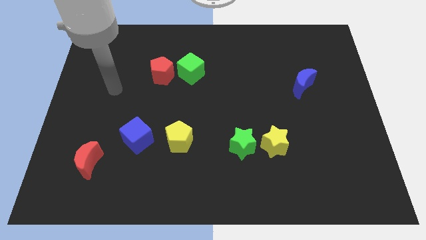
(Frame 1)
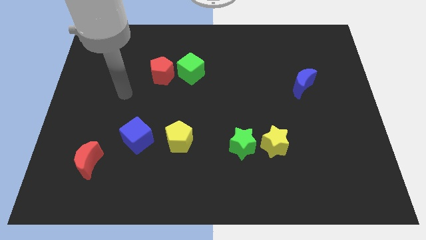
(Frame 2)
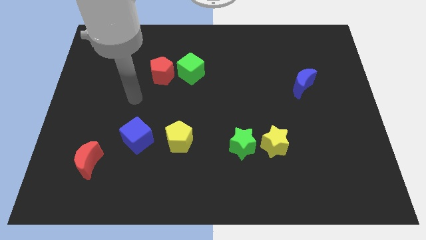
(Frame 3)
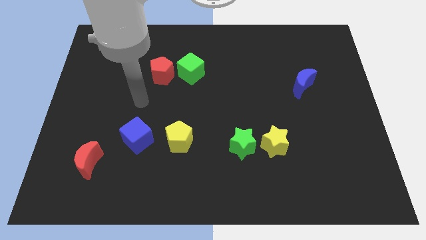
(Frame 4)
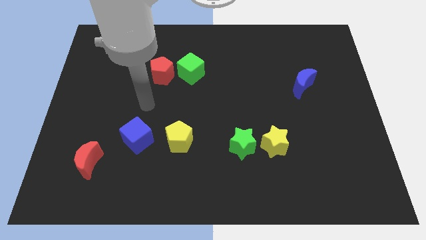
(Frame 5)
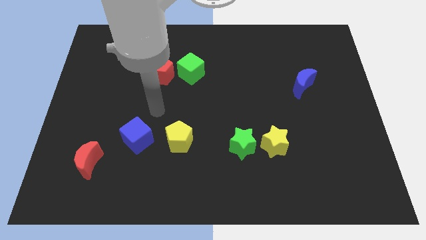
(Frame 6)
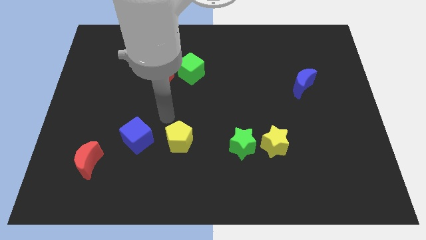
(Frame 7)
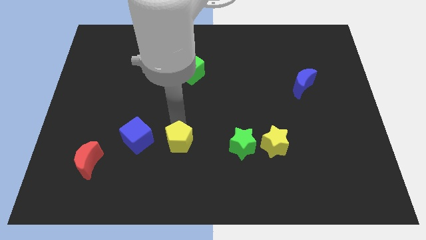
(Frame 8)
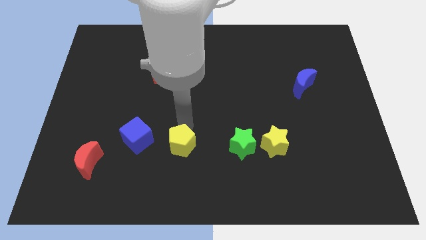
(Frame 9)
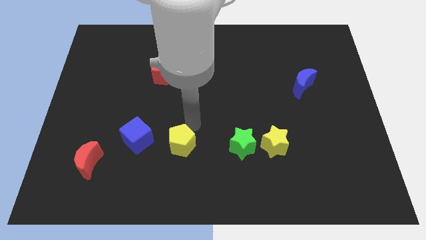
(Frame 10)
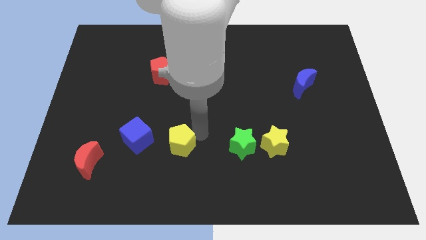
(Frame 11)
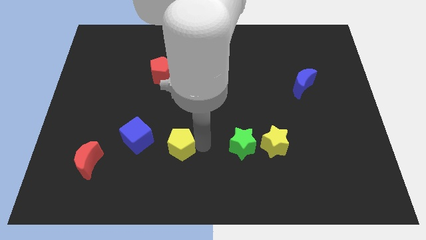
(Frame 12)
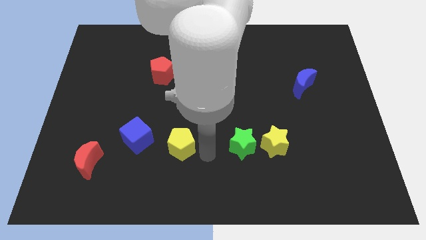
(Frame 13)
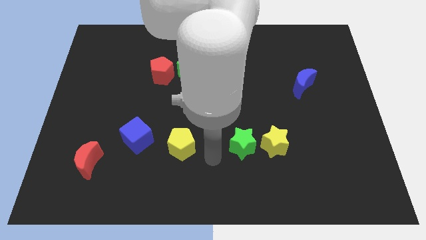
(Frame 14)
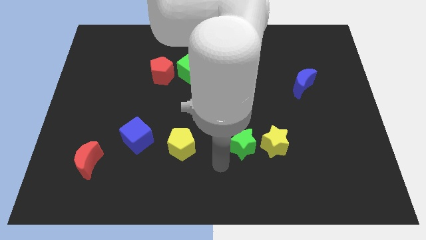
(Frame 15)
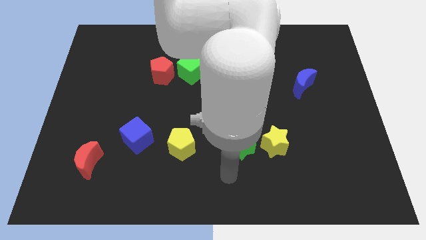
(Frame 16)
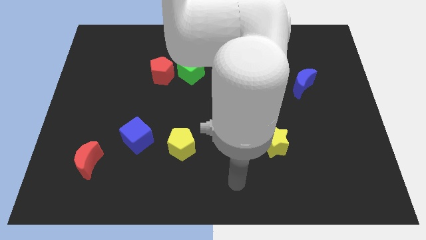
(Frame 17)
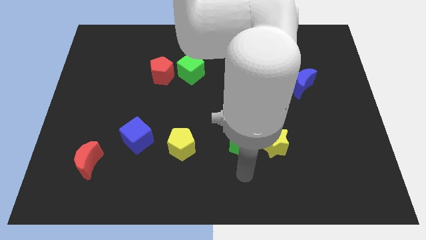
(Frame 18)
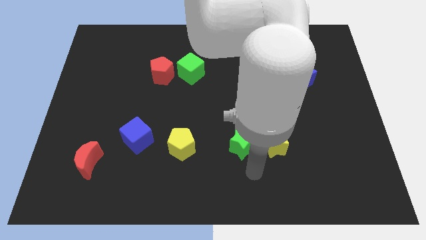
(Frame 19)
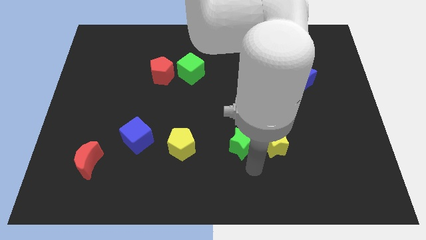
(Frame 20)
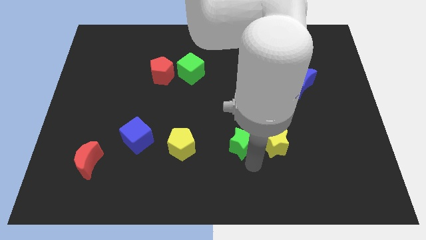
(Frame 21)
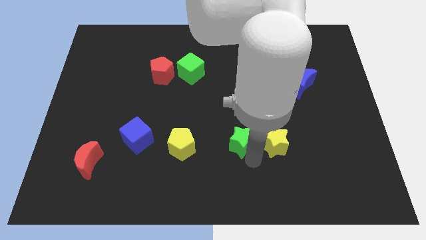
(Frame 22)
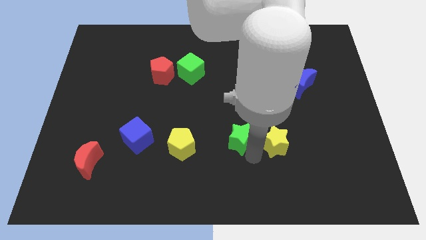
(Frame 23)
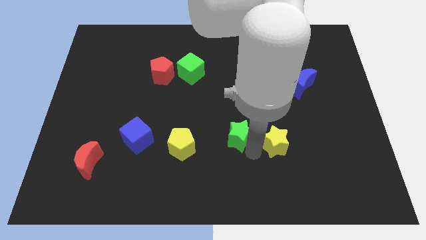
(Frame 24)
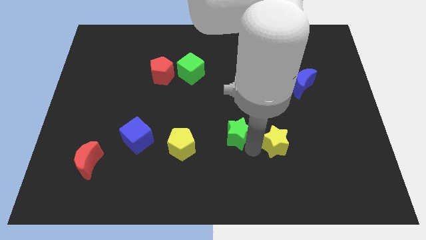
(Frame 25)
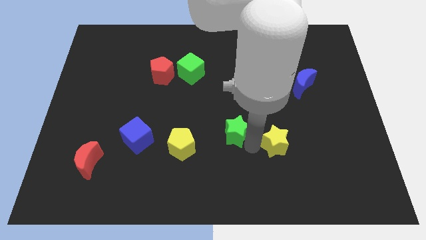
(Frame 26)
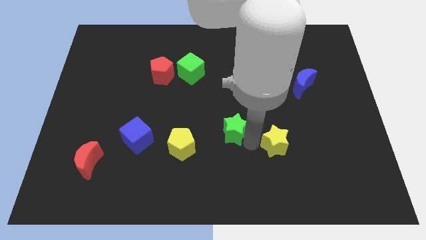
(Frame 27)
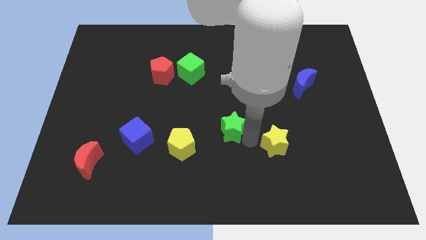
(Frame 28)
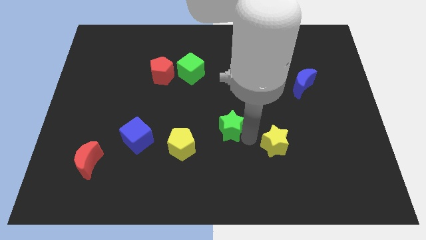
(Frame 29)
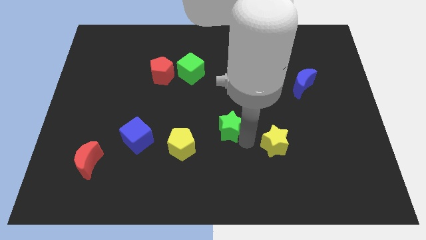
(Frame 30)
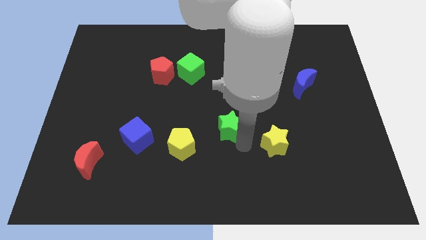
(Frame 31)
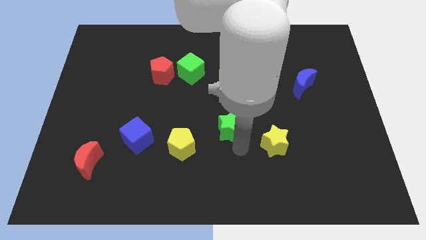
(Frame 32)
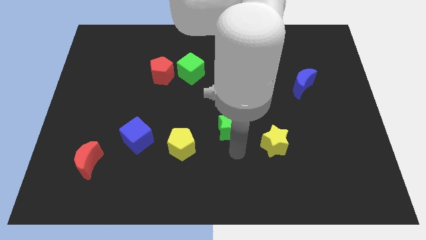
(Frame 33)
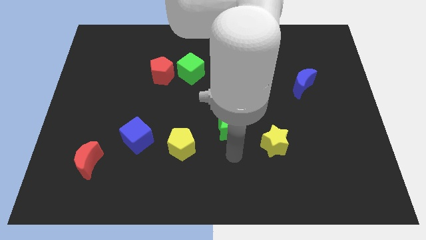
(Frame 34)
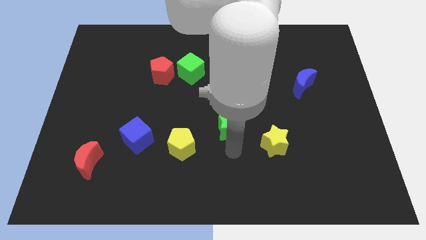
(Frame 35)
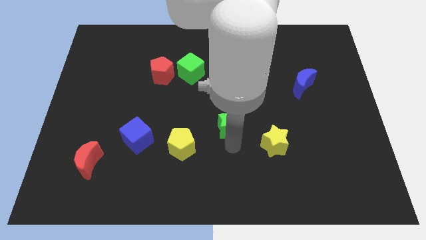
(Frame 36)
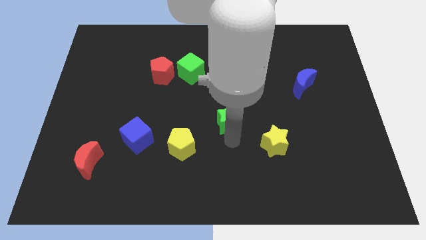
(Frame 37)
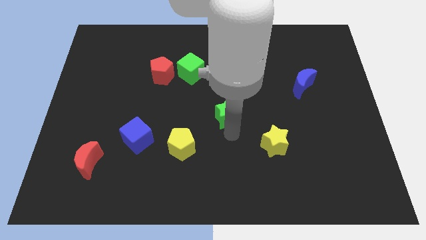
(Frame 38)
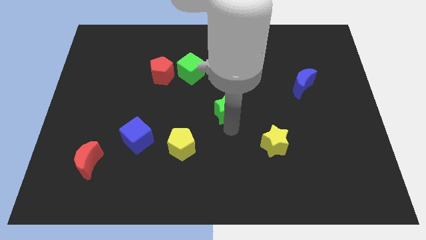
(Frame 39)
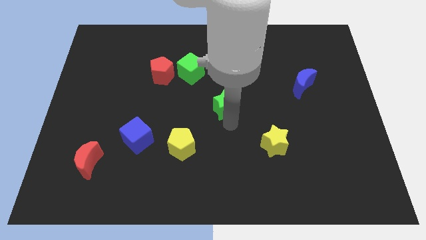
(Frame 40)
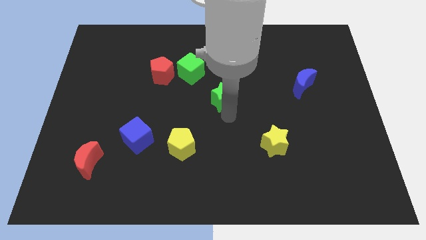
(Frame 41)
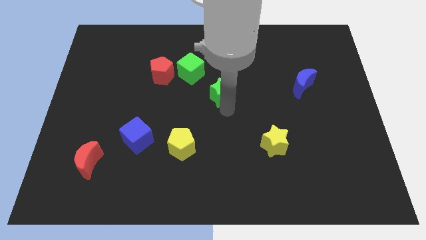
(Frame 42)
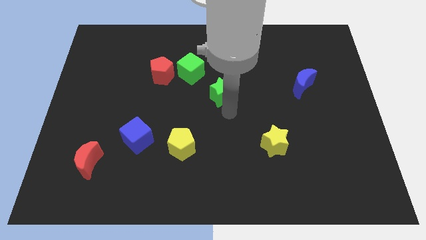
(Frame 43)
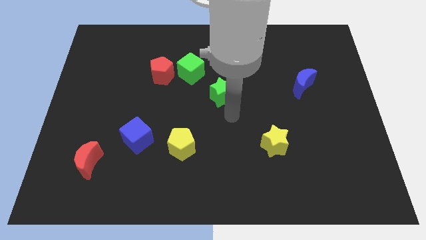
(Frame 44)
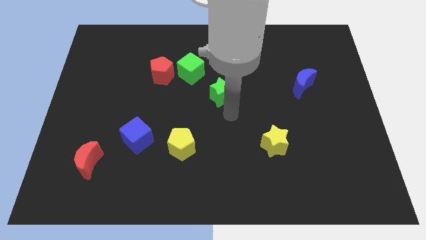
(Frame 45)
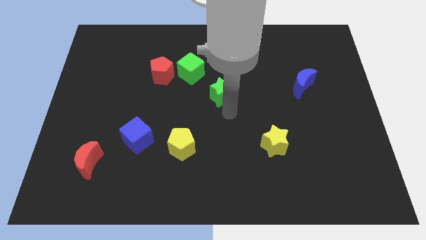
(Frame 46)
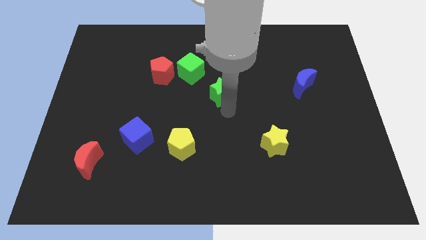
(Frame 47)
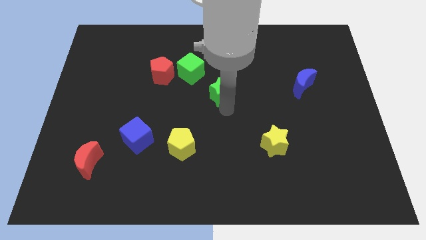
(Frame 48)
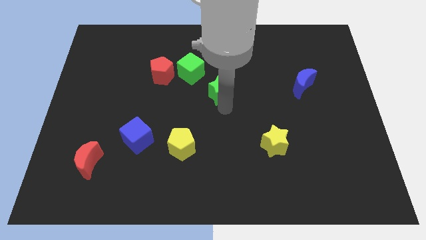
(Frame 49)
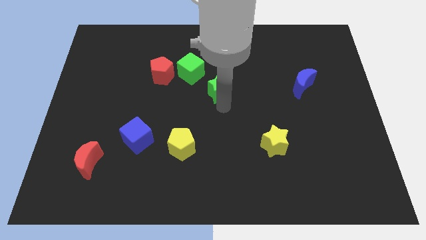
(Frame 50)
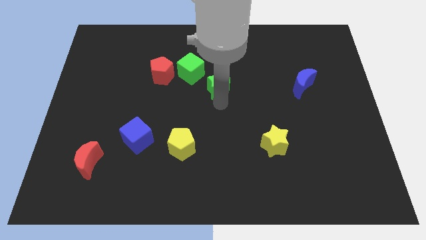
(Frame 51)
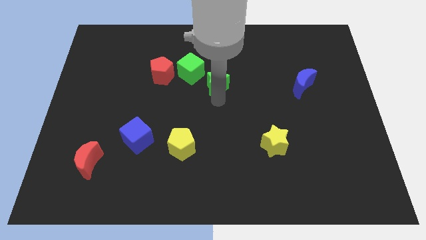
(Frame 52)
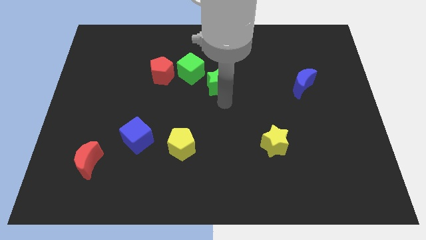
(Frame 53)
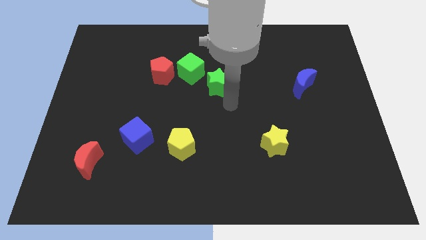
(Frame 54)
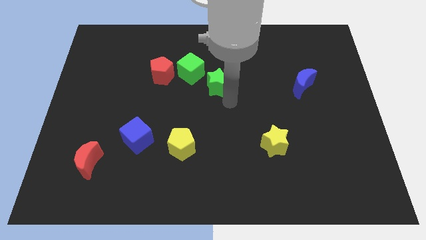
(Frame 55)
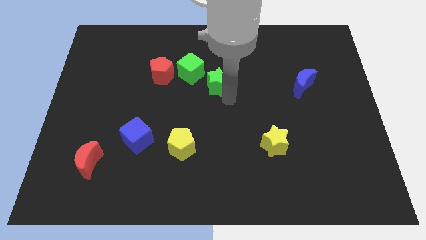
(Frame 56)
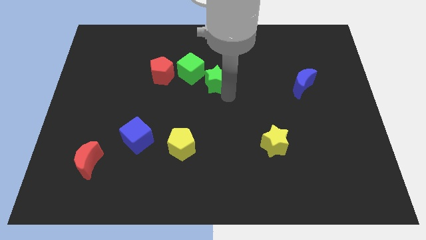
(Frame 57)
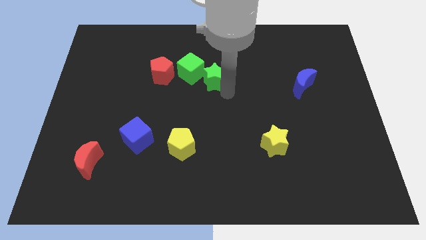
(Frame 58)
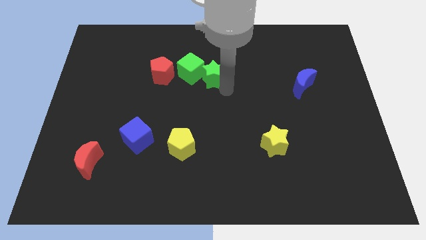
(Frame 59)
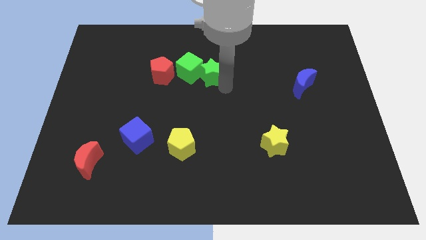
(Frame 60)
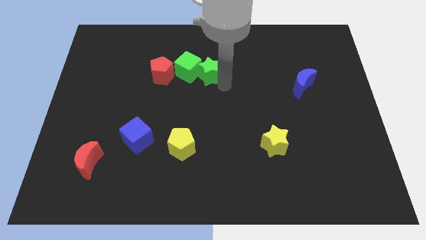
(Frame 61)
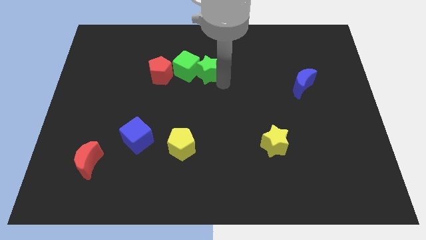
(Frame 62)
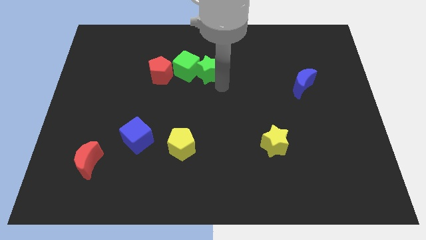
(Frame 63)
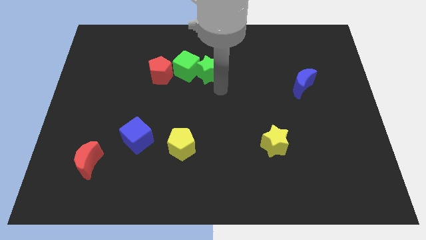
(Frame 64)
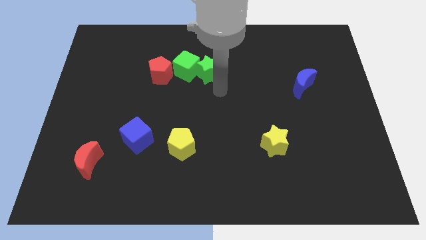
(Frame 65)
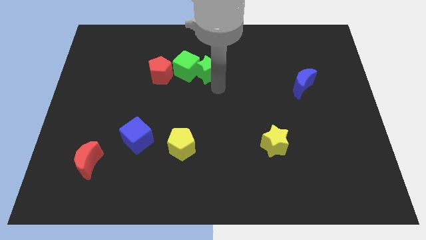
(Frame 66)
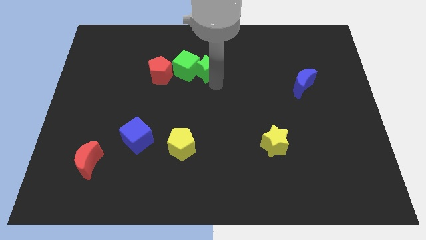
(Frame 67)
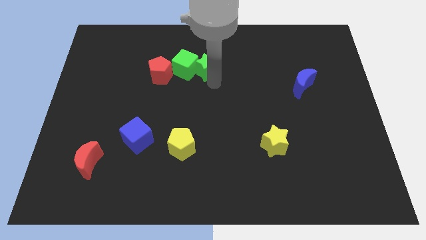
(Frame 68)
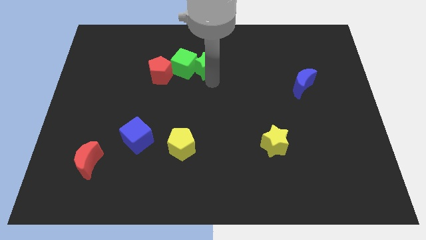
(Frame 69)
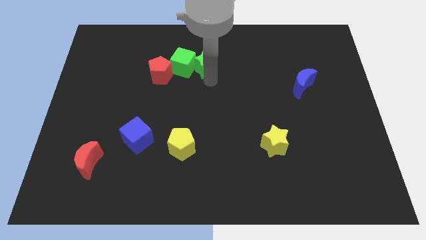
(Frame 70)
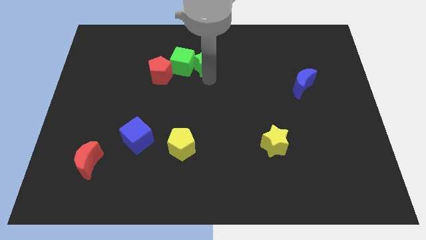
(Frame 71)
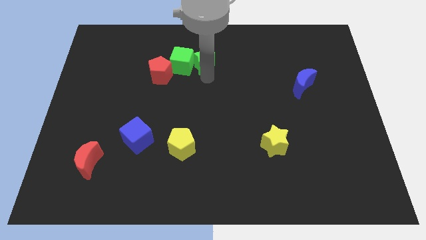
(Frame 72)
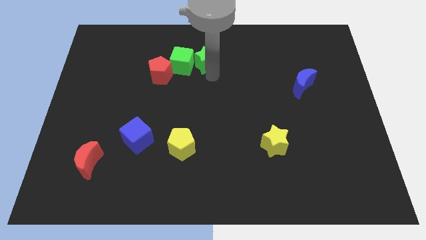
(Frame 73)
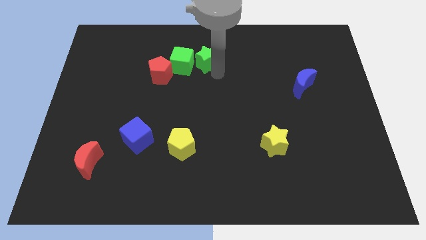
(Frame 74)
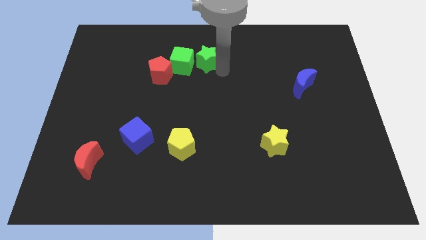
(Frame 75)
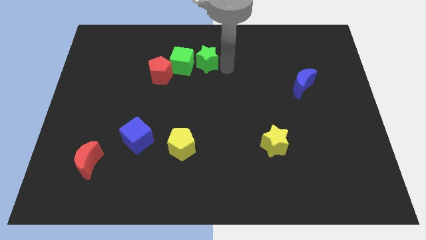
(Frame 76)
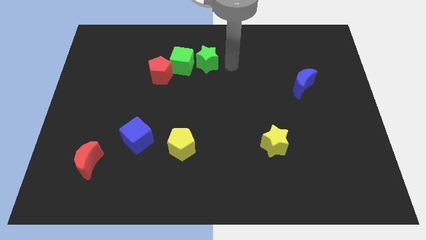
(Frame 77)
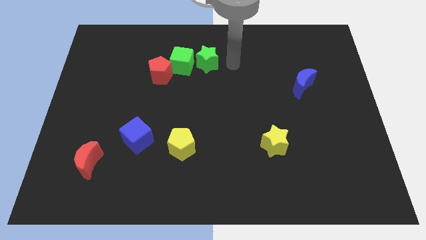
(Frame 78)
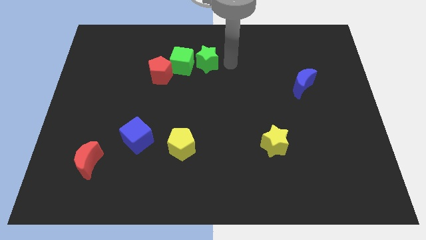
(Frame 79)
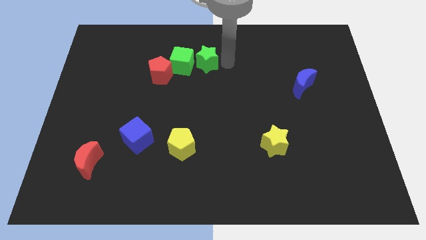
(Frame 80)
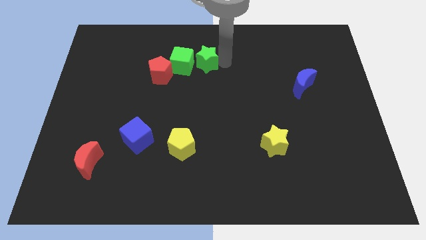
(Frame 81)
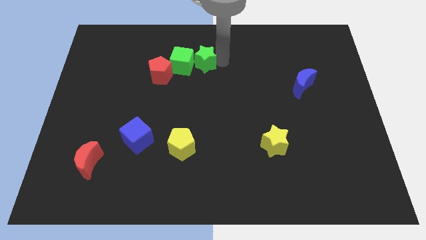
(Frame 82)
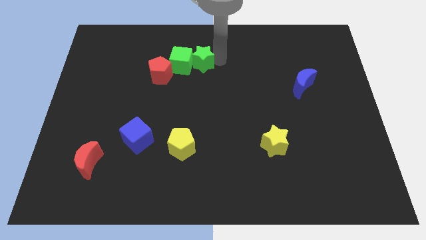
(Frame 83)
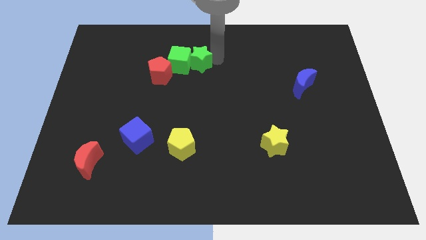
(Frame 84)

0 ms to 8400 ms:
put the green star to the top right side of the red pentagon
